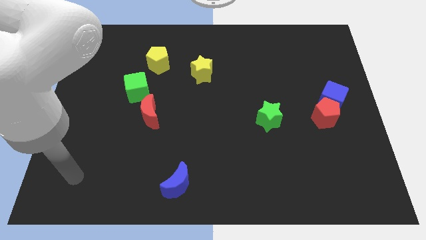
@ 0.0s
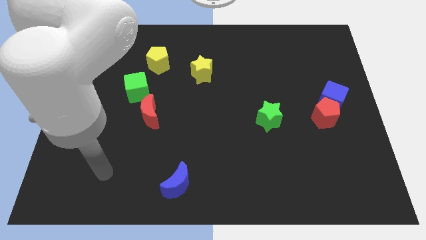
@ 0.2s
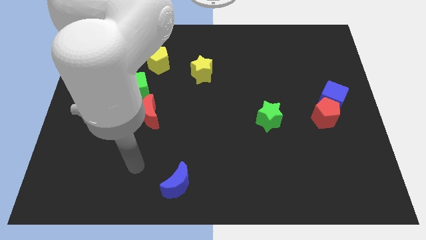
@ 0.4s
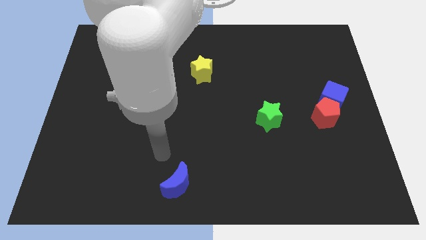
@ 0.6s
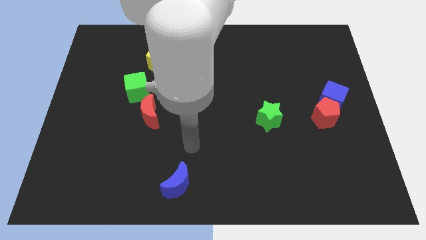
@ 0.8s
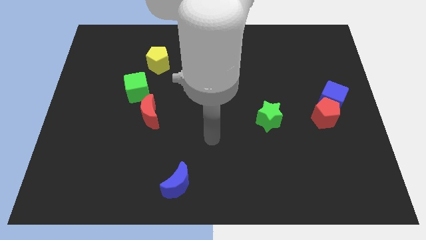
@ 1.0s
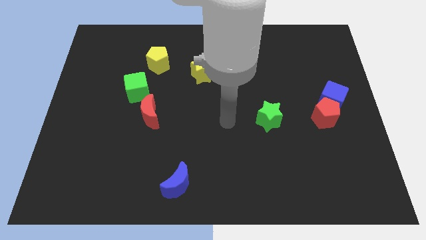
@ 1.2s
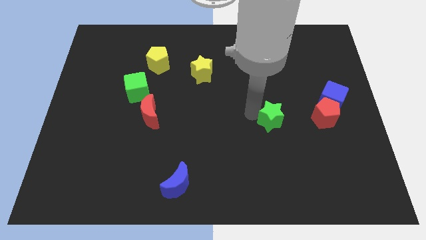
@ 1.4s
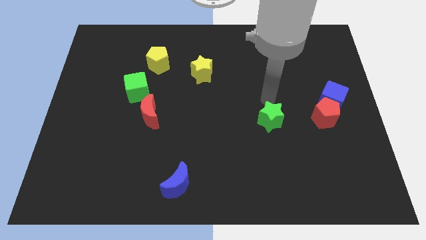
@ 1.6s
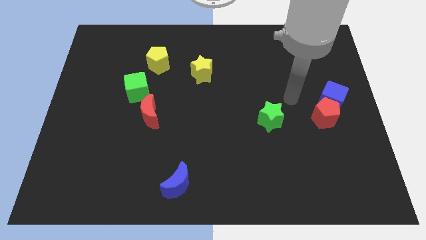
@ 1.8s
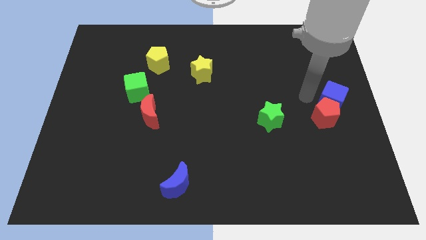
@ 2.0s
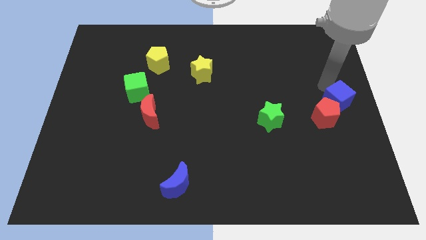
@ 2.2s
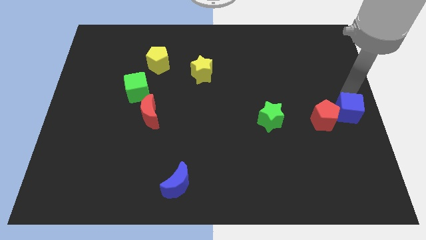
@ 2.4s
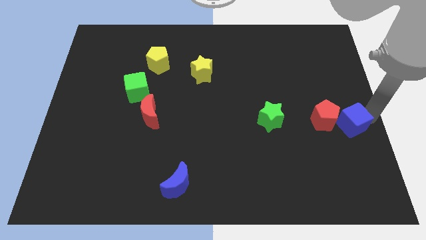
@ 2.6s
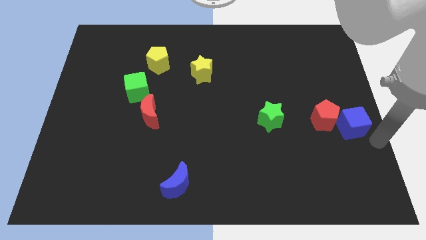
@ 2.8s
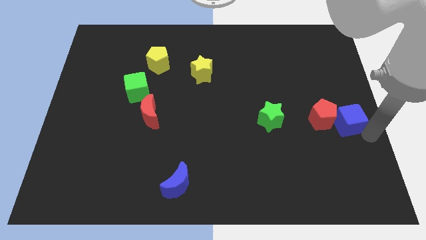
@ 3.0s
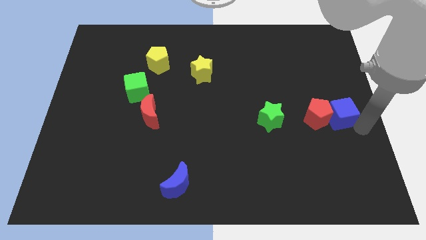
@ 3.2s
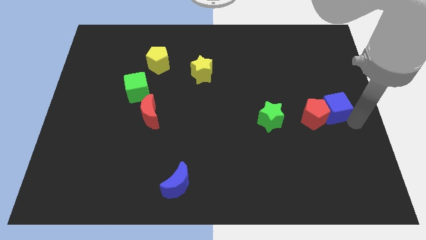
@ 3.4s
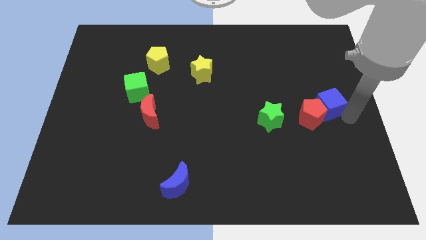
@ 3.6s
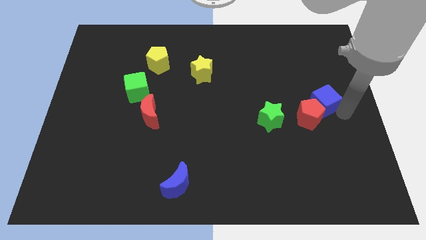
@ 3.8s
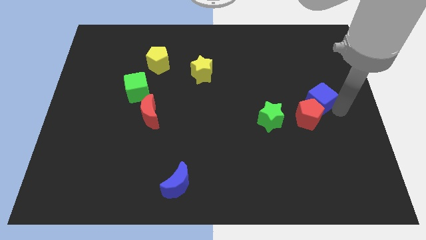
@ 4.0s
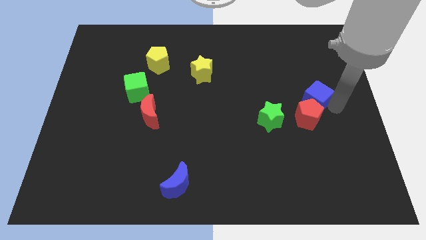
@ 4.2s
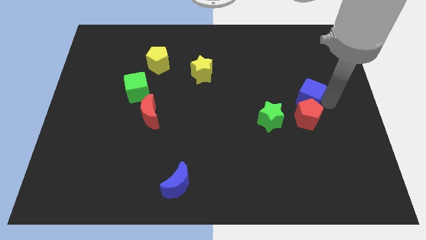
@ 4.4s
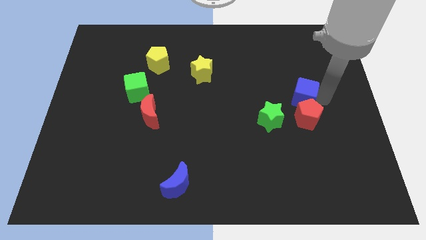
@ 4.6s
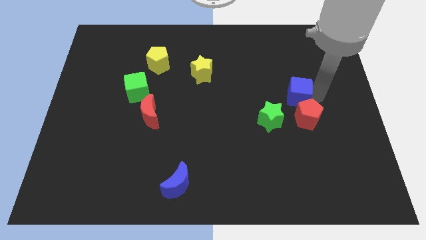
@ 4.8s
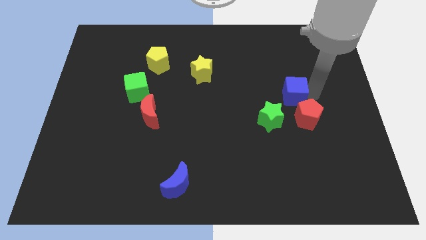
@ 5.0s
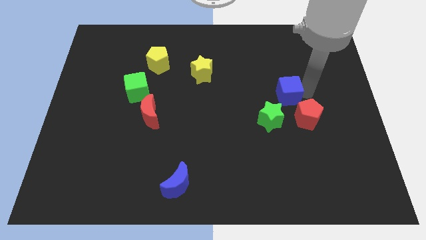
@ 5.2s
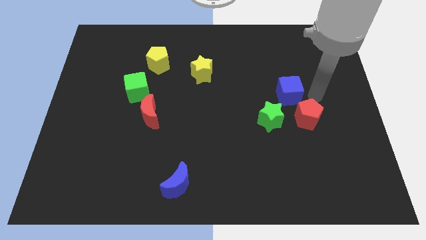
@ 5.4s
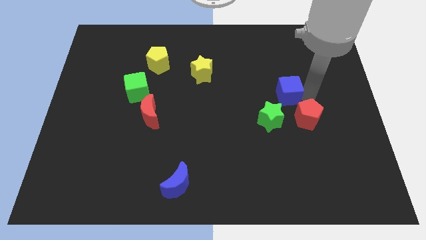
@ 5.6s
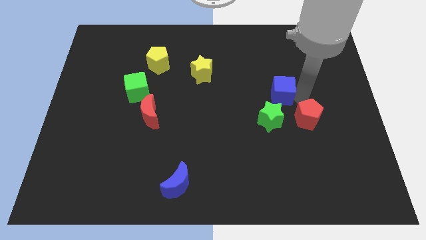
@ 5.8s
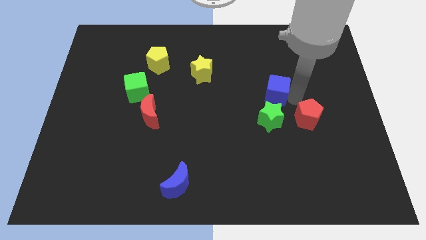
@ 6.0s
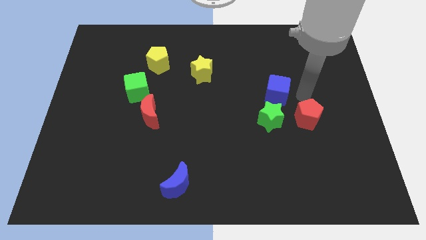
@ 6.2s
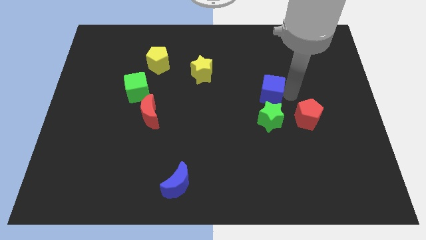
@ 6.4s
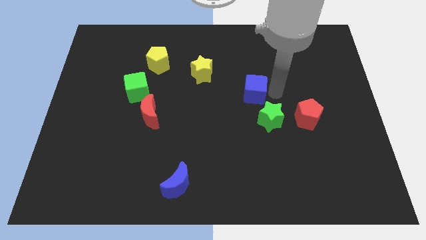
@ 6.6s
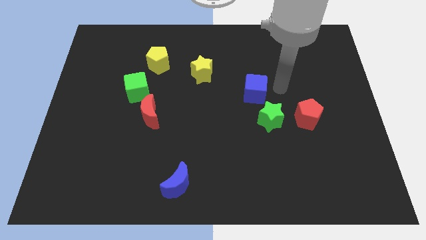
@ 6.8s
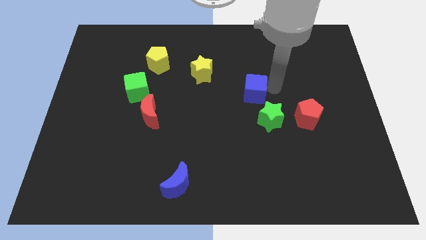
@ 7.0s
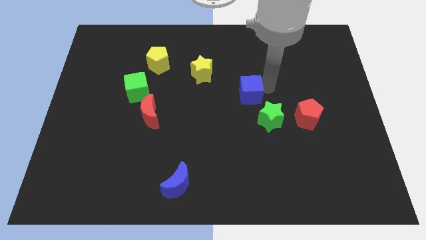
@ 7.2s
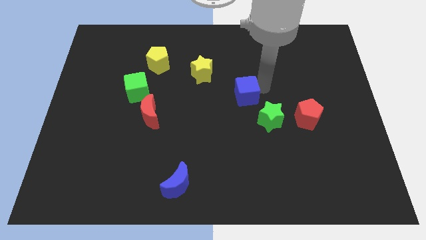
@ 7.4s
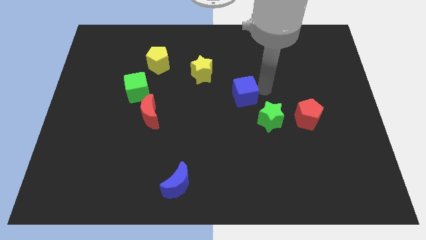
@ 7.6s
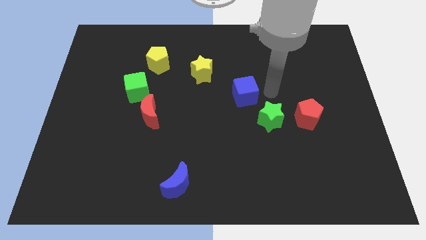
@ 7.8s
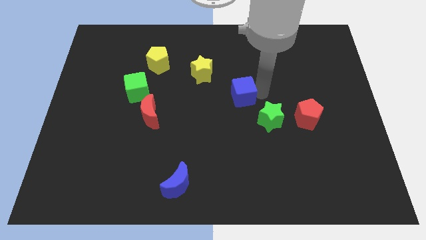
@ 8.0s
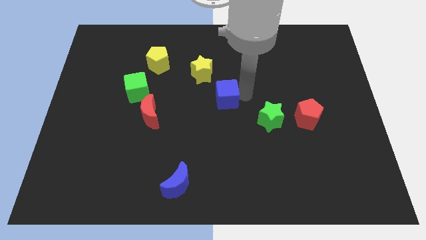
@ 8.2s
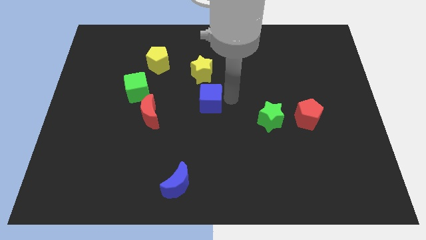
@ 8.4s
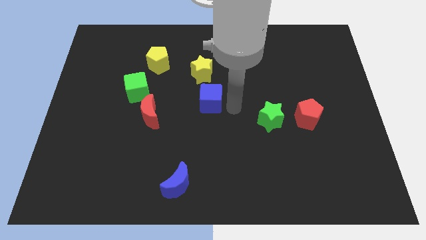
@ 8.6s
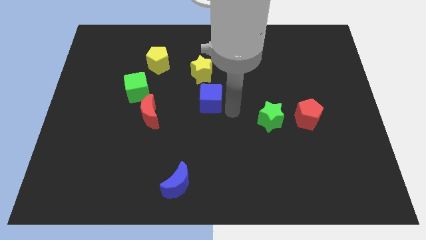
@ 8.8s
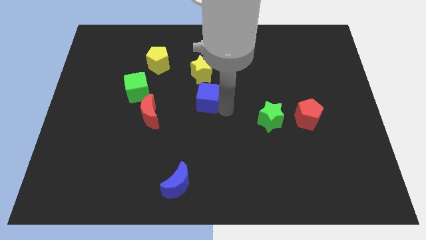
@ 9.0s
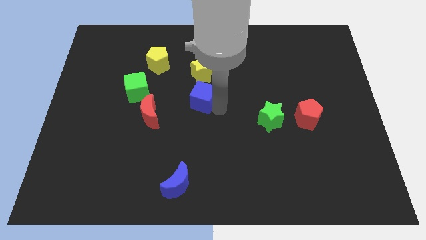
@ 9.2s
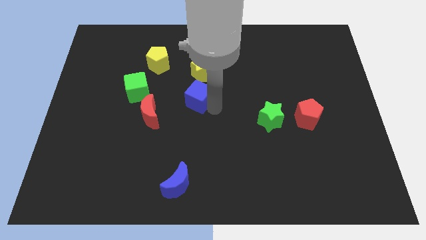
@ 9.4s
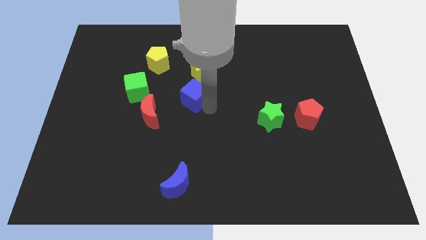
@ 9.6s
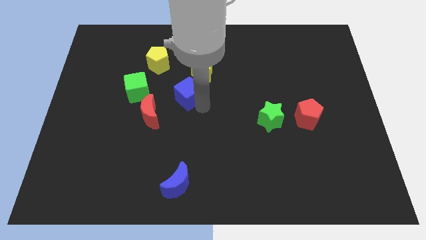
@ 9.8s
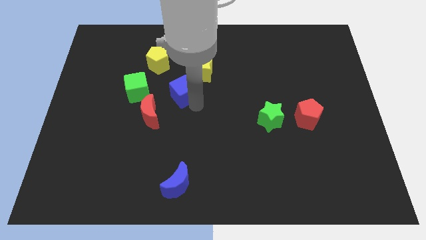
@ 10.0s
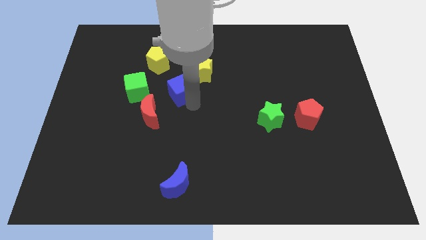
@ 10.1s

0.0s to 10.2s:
push the blue cube to the bottom right of the yellow pentagon

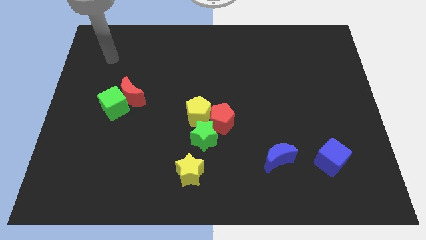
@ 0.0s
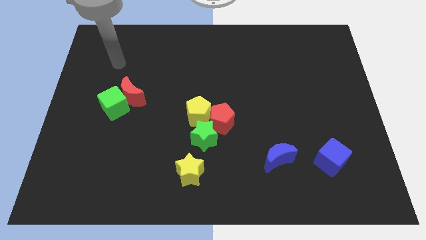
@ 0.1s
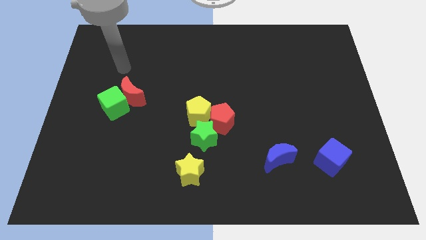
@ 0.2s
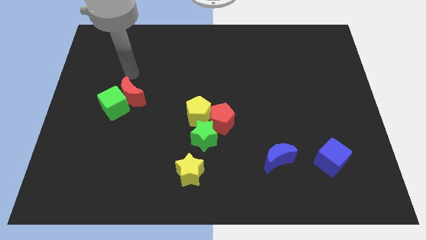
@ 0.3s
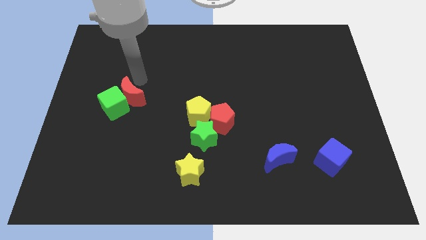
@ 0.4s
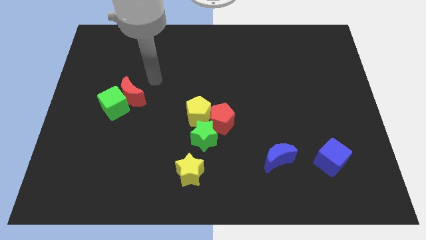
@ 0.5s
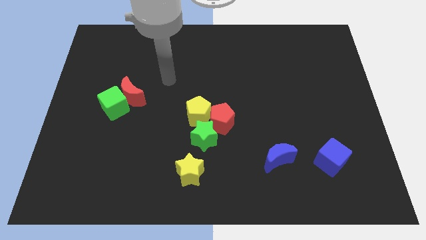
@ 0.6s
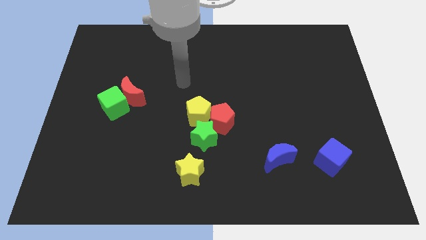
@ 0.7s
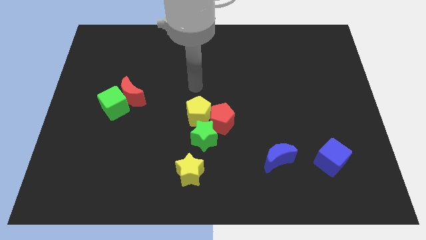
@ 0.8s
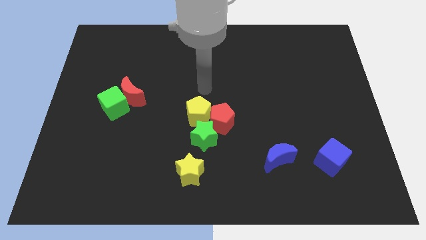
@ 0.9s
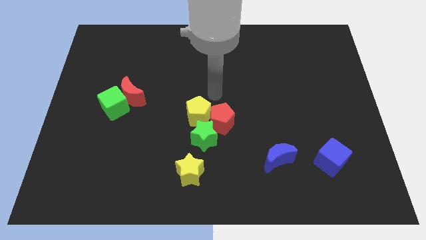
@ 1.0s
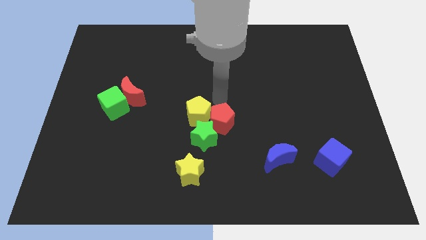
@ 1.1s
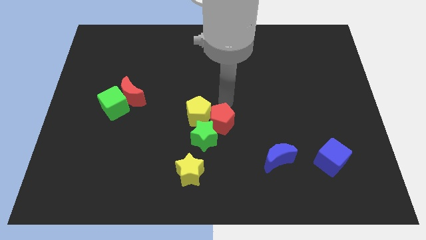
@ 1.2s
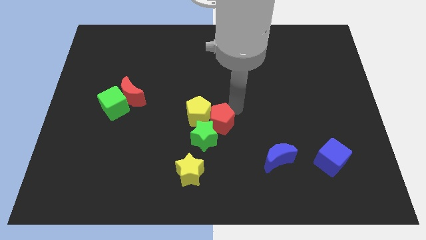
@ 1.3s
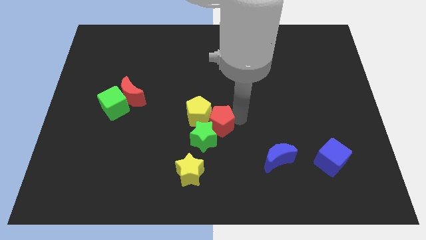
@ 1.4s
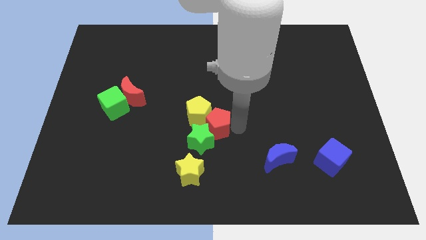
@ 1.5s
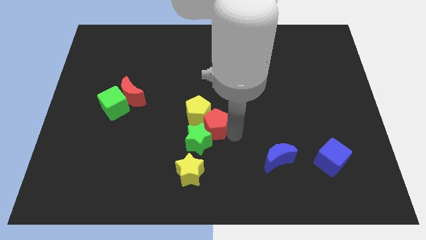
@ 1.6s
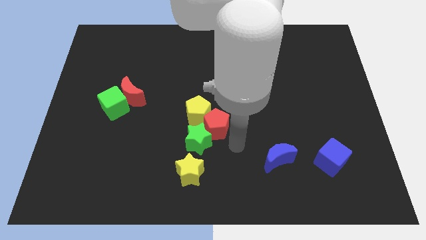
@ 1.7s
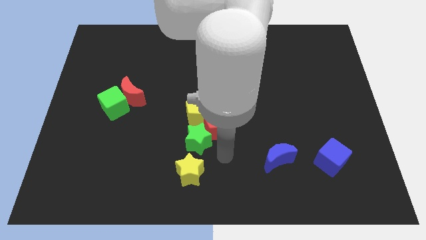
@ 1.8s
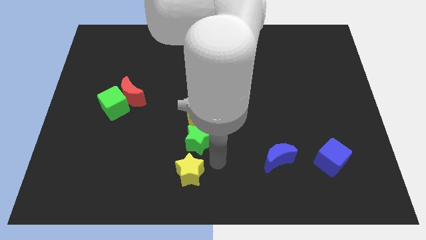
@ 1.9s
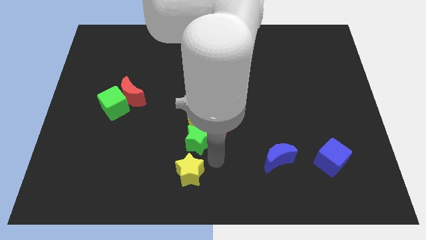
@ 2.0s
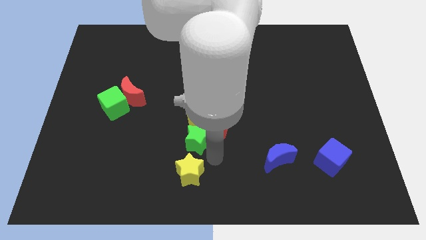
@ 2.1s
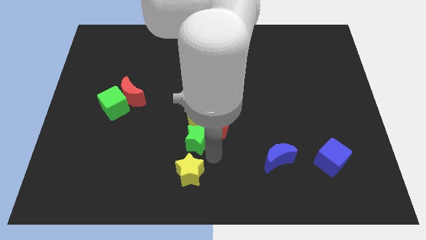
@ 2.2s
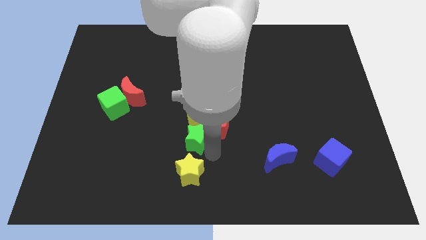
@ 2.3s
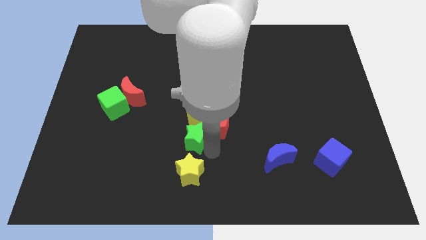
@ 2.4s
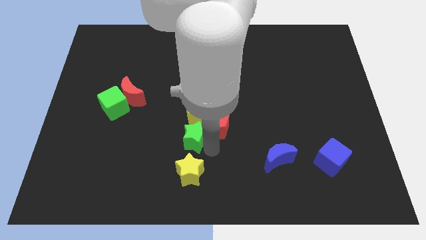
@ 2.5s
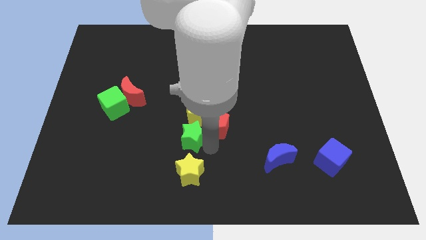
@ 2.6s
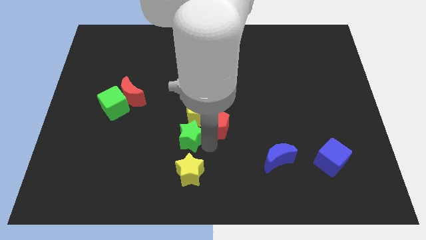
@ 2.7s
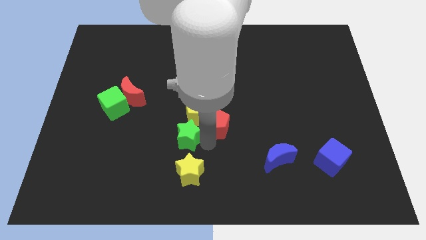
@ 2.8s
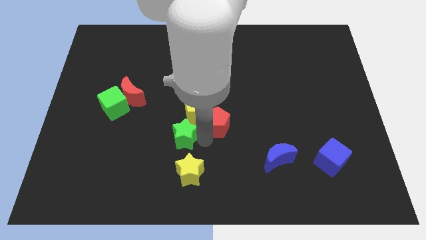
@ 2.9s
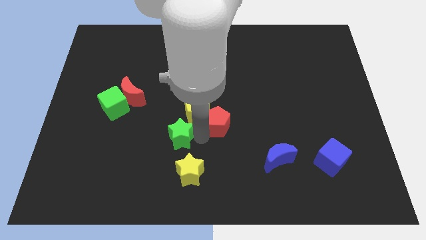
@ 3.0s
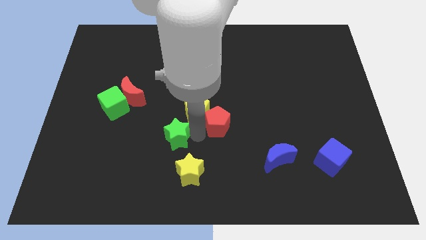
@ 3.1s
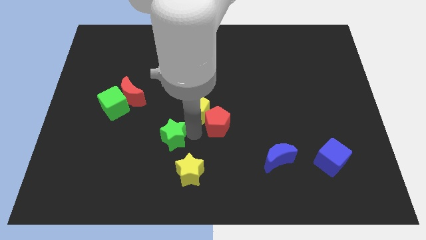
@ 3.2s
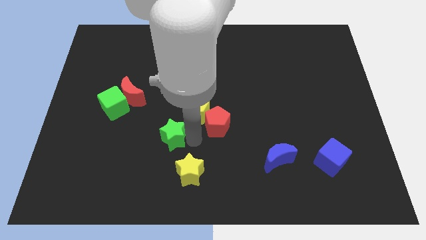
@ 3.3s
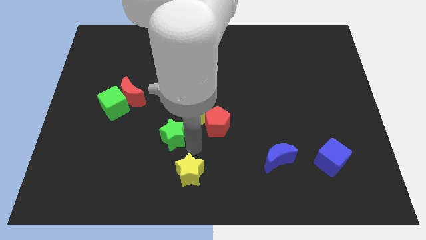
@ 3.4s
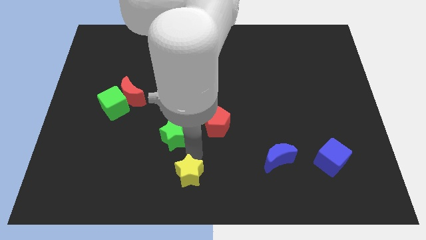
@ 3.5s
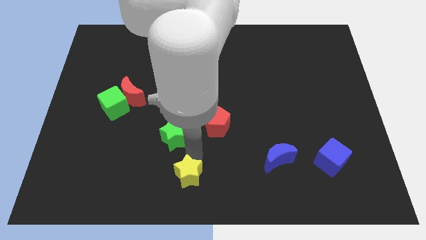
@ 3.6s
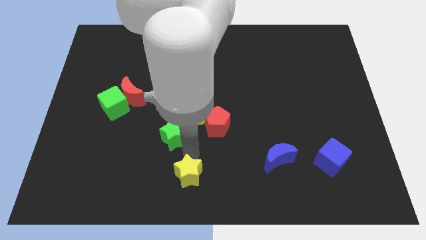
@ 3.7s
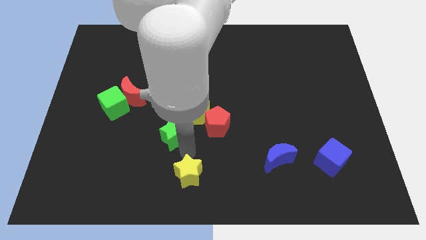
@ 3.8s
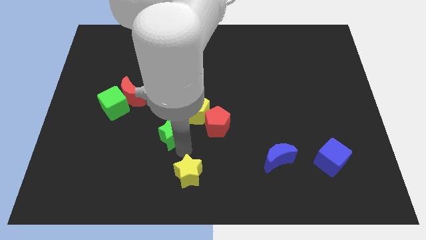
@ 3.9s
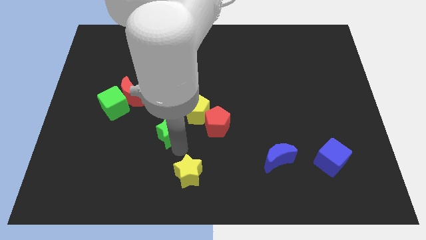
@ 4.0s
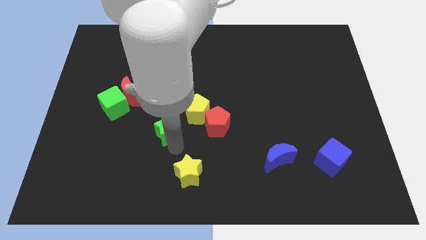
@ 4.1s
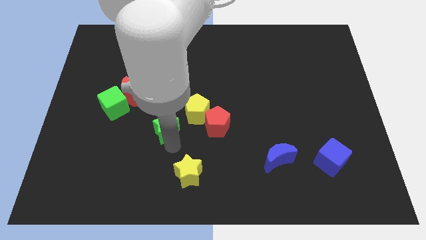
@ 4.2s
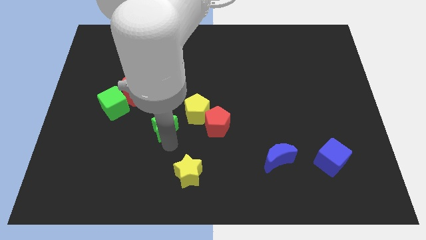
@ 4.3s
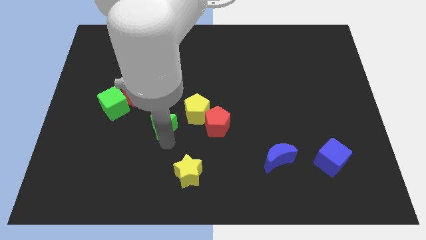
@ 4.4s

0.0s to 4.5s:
slide the green star diagonally down and to the right of the red moon
